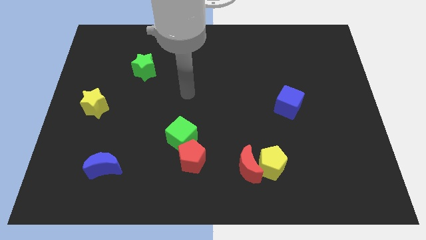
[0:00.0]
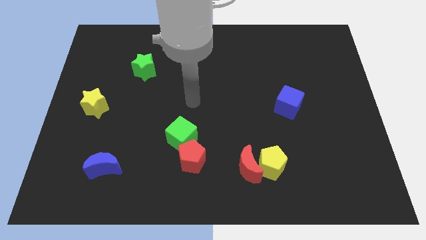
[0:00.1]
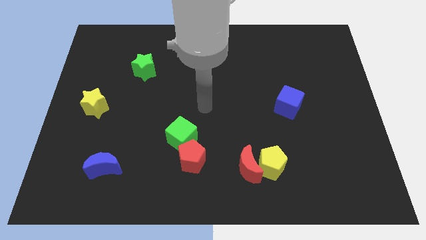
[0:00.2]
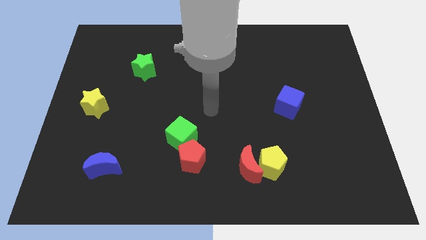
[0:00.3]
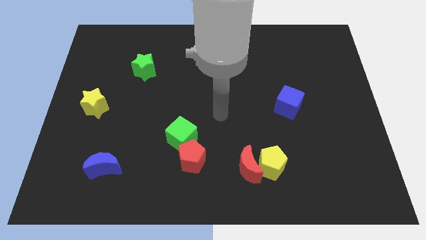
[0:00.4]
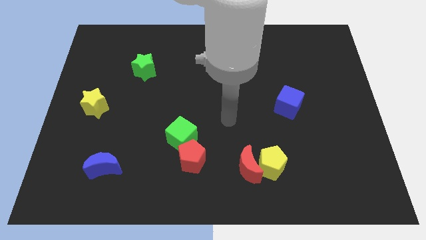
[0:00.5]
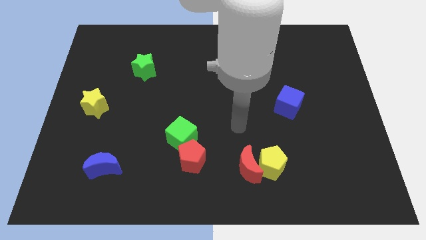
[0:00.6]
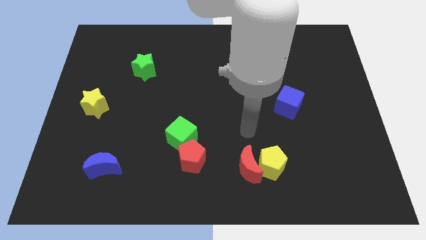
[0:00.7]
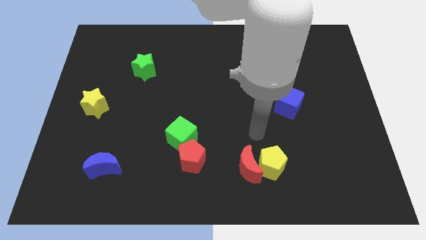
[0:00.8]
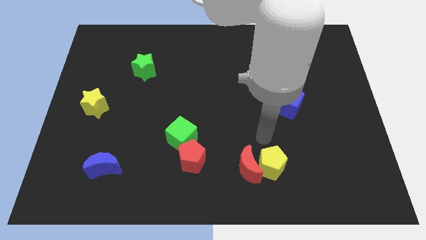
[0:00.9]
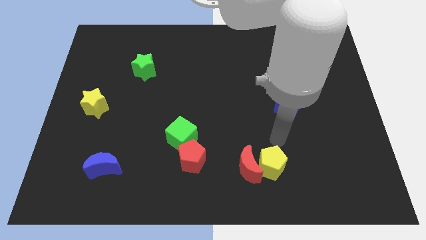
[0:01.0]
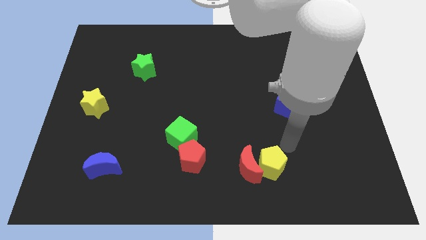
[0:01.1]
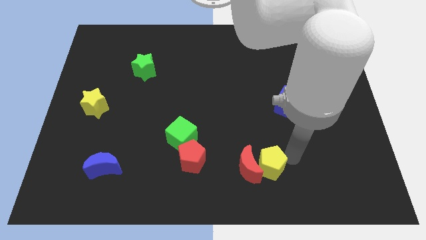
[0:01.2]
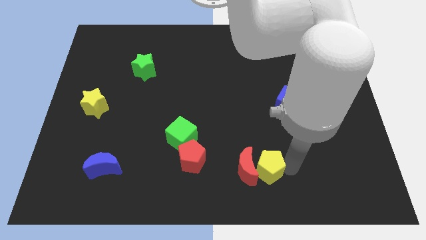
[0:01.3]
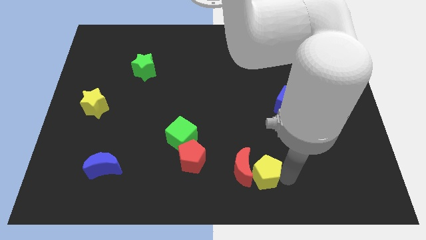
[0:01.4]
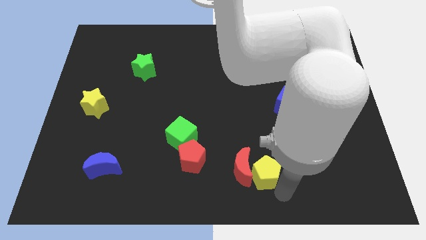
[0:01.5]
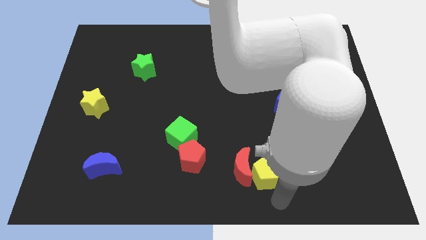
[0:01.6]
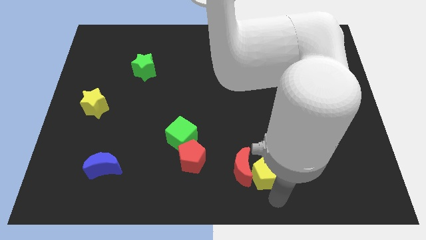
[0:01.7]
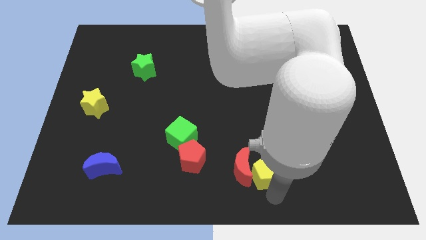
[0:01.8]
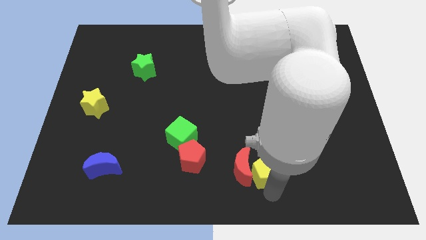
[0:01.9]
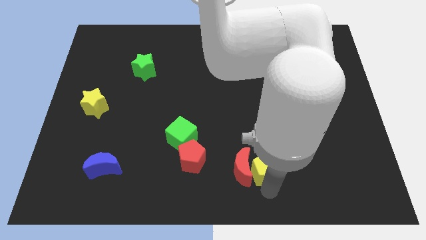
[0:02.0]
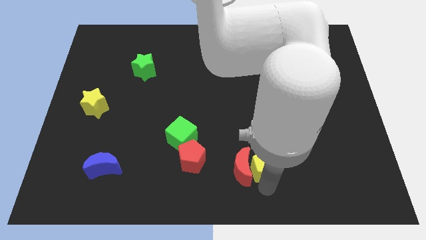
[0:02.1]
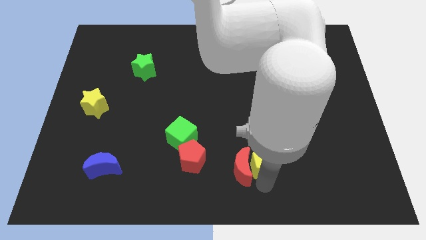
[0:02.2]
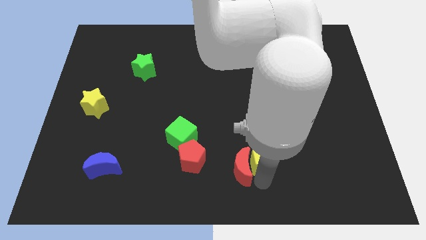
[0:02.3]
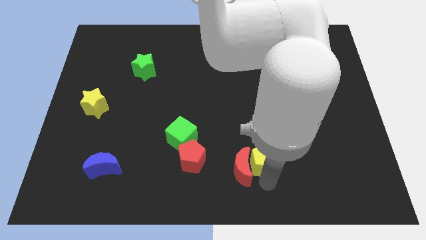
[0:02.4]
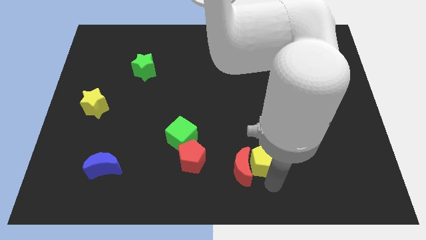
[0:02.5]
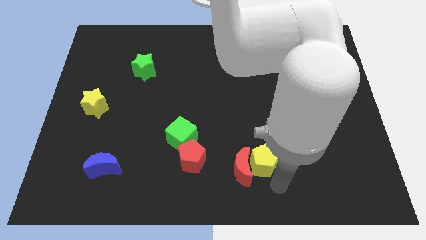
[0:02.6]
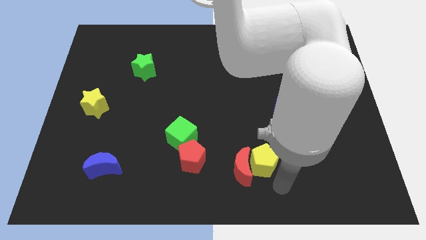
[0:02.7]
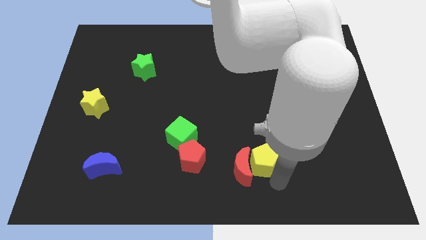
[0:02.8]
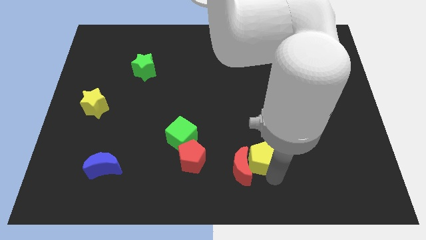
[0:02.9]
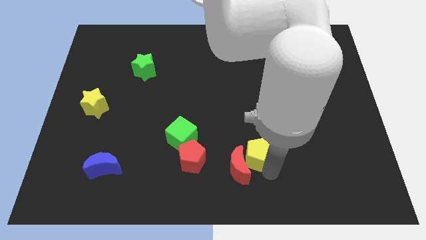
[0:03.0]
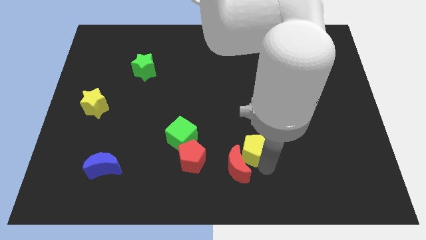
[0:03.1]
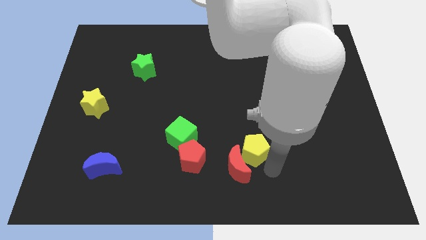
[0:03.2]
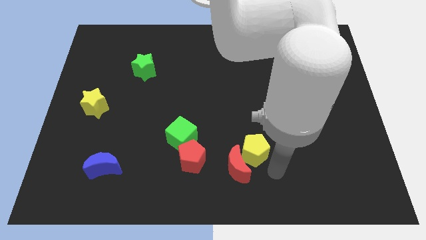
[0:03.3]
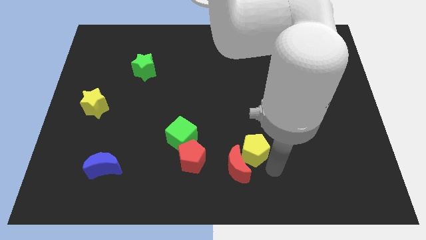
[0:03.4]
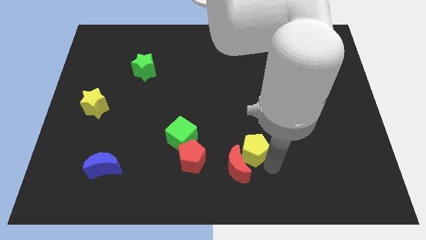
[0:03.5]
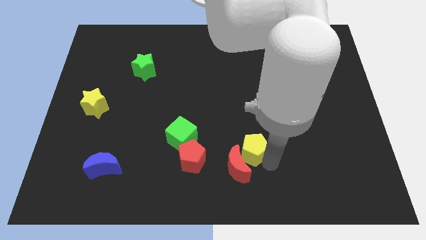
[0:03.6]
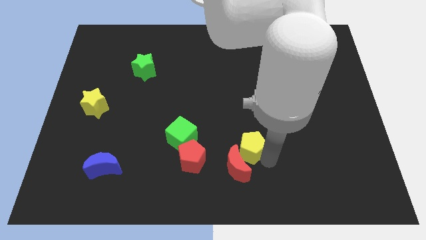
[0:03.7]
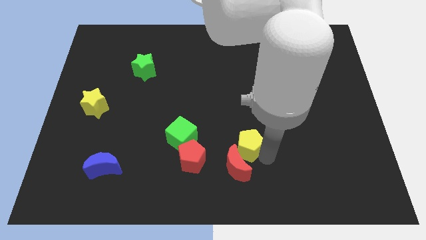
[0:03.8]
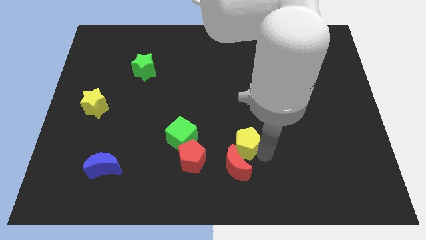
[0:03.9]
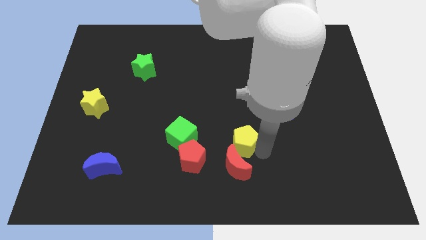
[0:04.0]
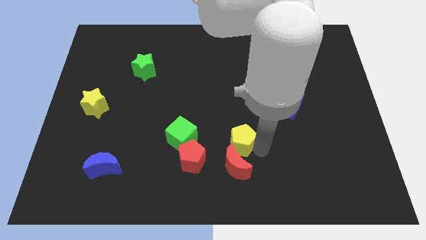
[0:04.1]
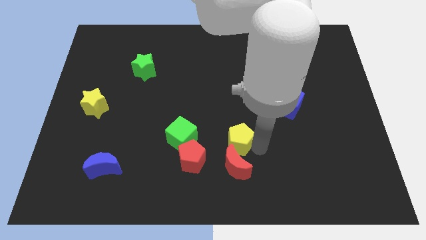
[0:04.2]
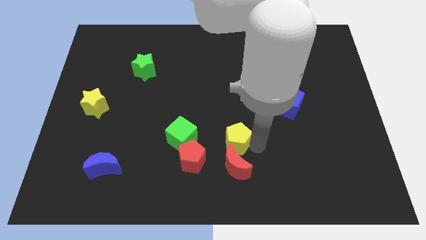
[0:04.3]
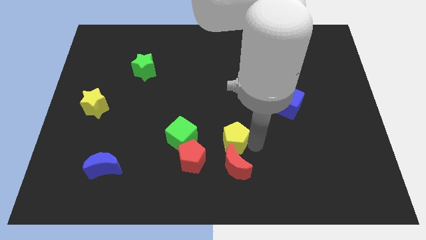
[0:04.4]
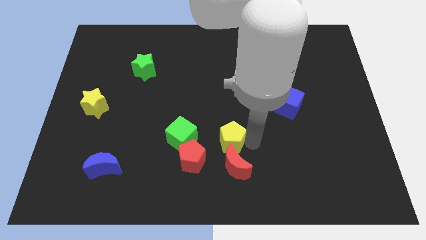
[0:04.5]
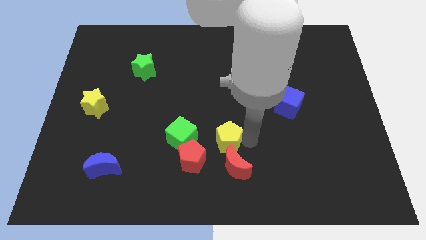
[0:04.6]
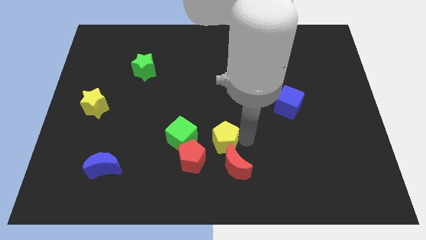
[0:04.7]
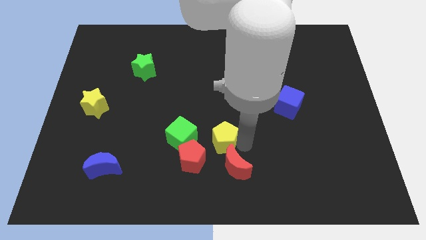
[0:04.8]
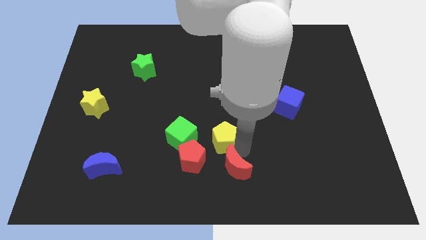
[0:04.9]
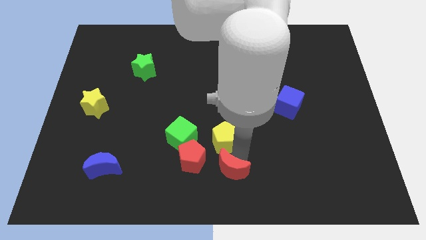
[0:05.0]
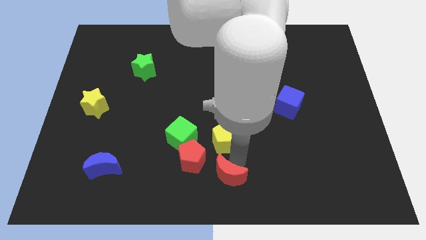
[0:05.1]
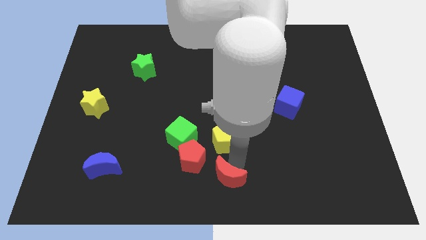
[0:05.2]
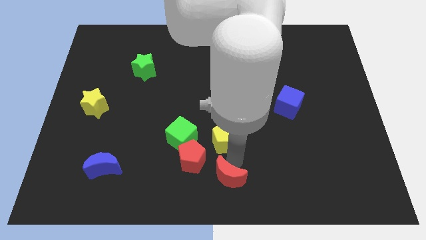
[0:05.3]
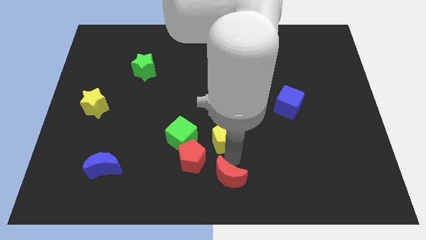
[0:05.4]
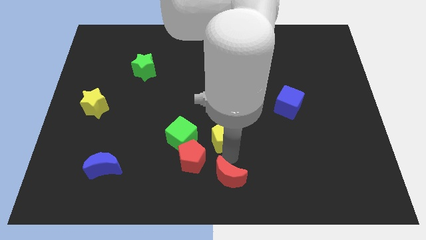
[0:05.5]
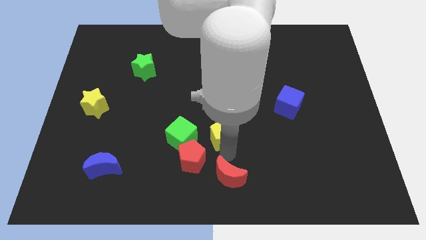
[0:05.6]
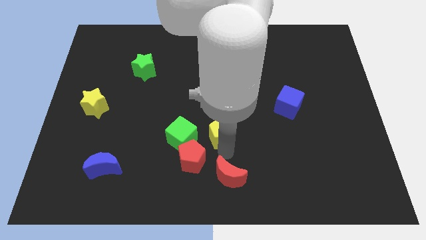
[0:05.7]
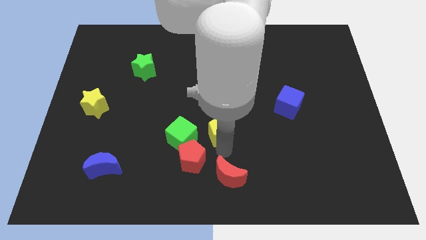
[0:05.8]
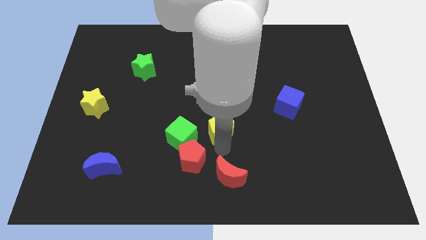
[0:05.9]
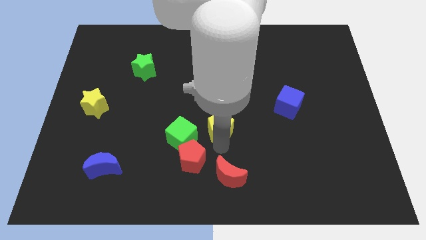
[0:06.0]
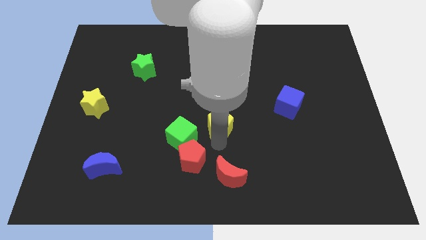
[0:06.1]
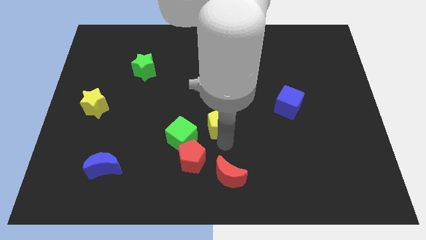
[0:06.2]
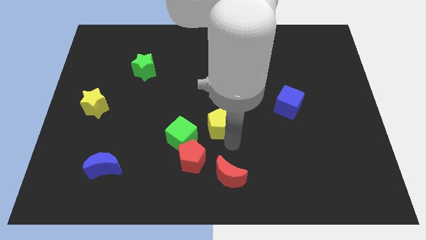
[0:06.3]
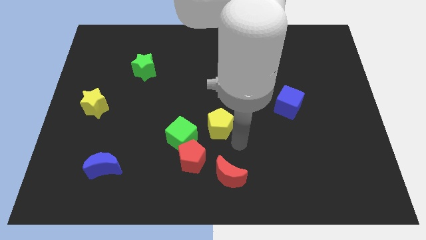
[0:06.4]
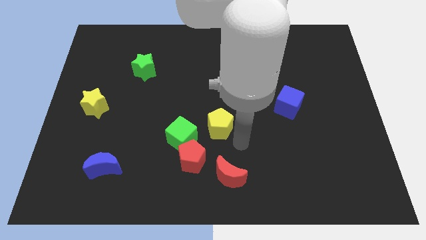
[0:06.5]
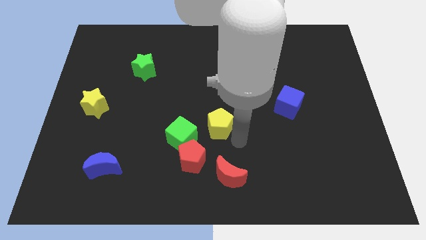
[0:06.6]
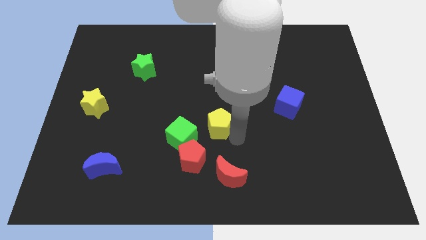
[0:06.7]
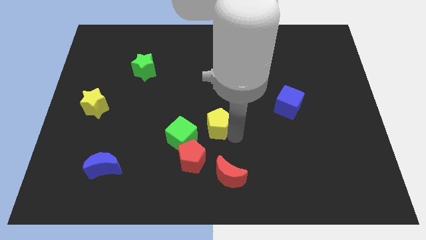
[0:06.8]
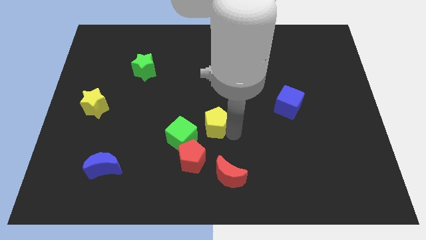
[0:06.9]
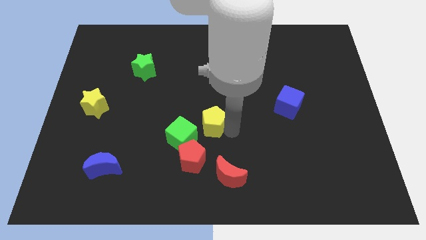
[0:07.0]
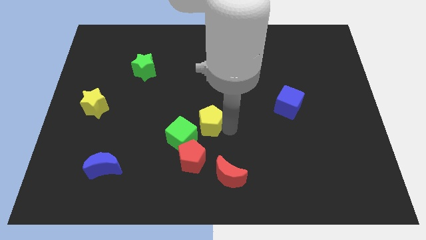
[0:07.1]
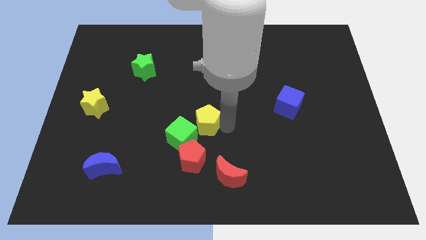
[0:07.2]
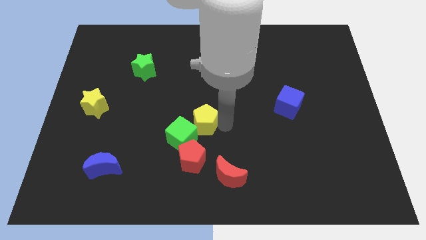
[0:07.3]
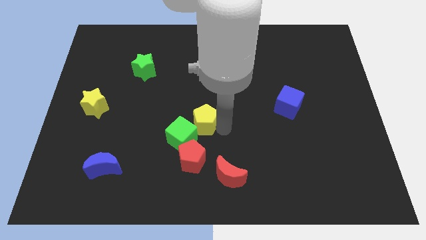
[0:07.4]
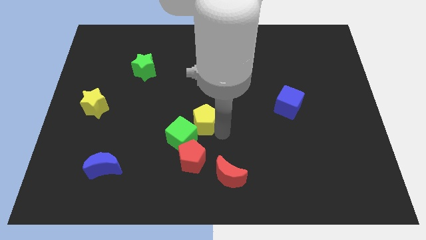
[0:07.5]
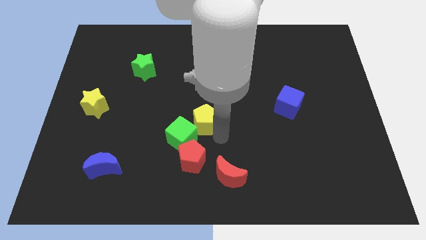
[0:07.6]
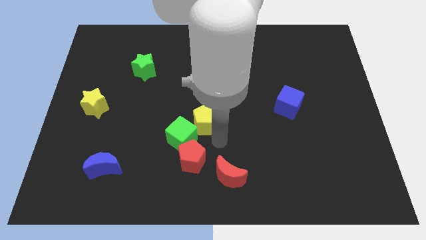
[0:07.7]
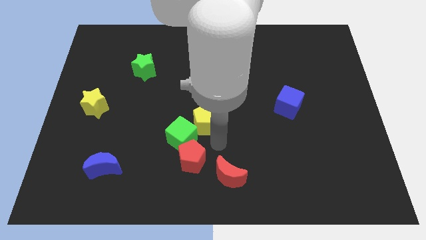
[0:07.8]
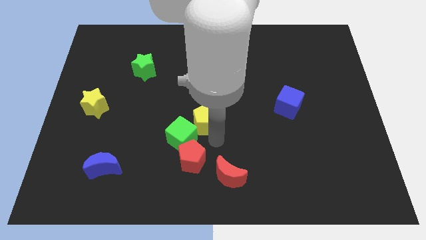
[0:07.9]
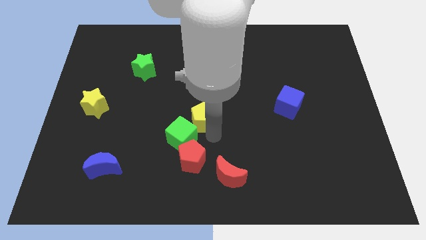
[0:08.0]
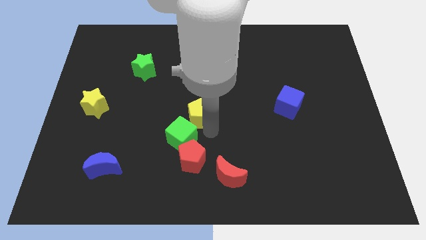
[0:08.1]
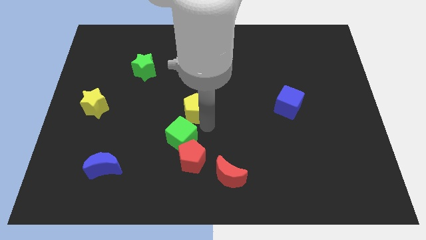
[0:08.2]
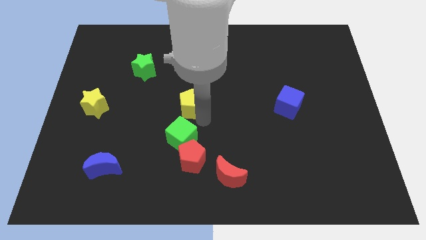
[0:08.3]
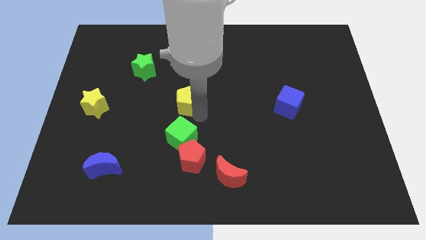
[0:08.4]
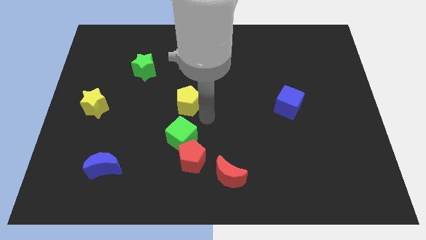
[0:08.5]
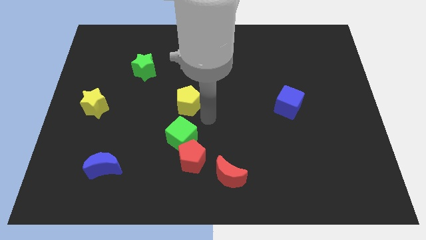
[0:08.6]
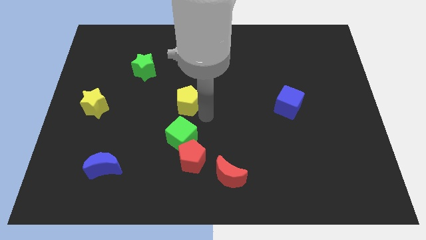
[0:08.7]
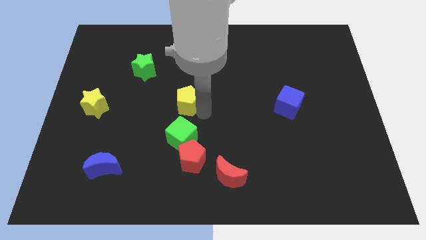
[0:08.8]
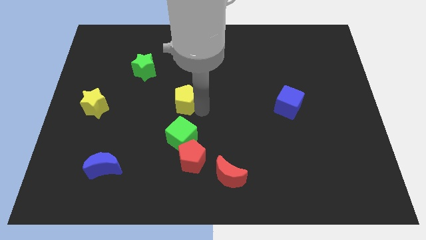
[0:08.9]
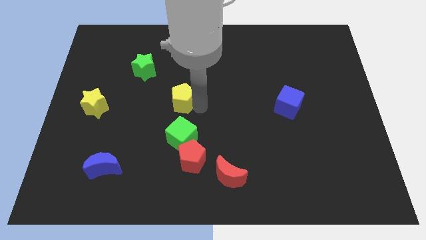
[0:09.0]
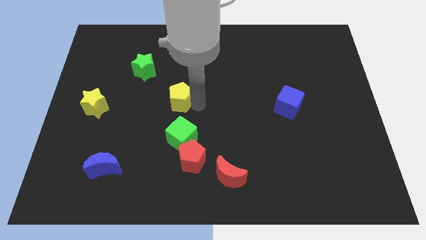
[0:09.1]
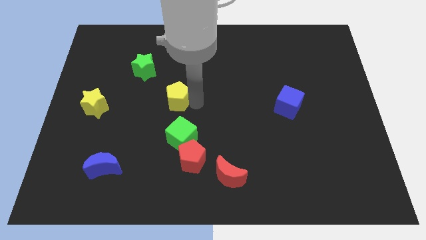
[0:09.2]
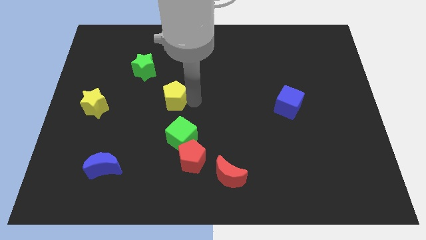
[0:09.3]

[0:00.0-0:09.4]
move the yellow pentagon to the bottom right side of the green star
